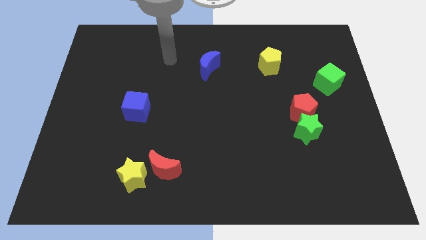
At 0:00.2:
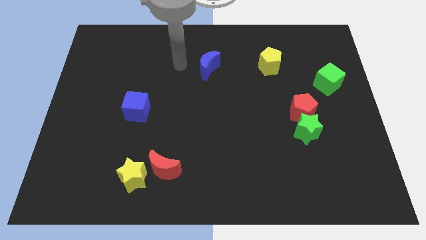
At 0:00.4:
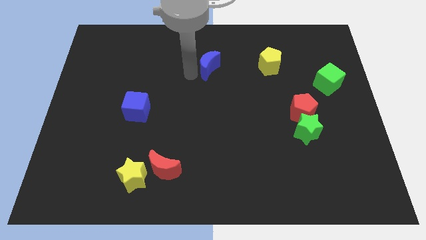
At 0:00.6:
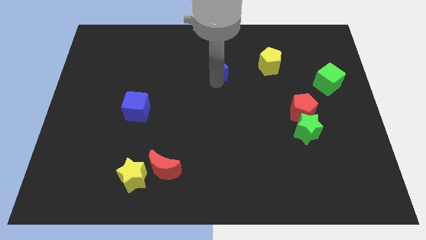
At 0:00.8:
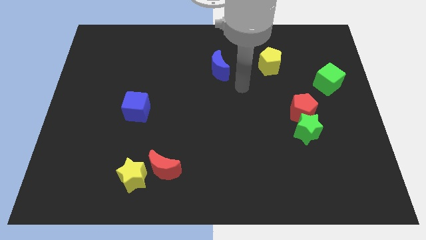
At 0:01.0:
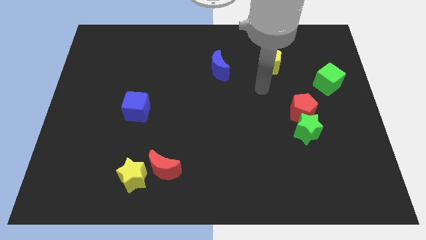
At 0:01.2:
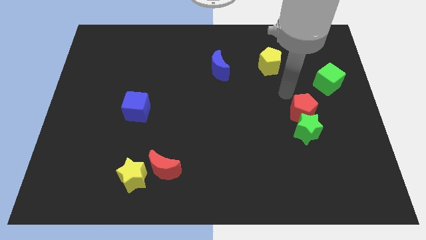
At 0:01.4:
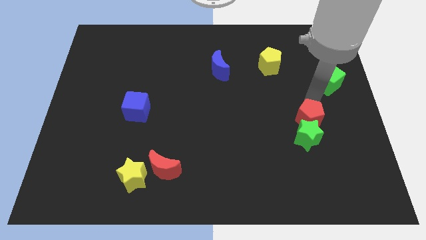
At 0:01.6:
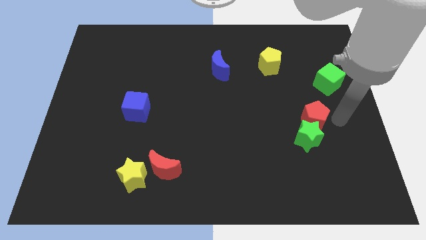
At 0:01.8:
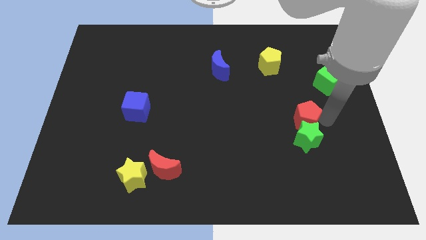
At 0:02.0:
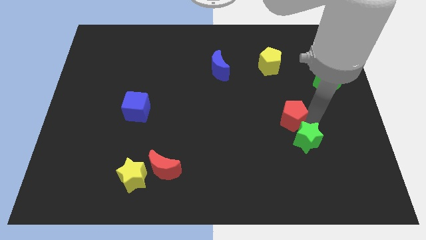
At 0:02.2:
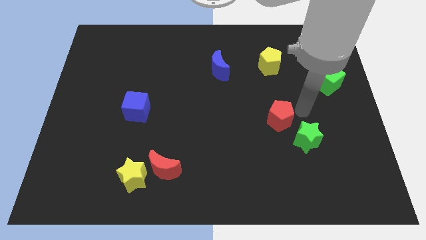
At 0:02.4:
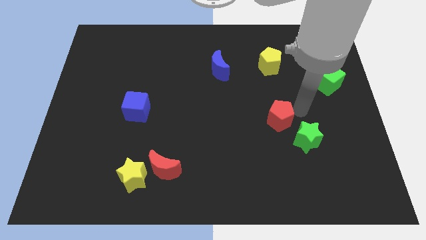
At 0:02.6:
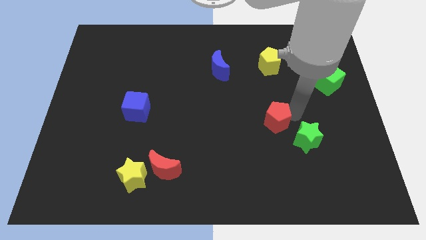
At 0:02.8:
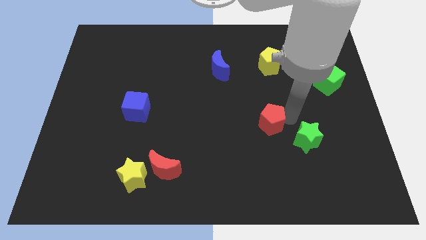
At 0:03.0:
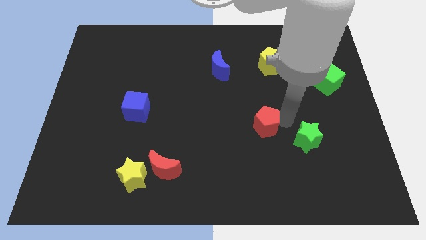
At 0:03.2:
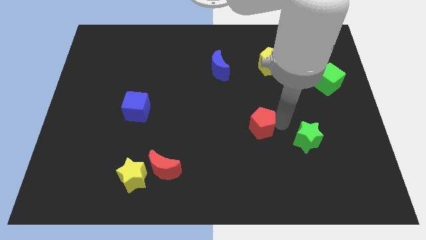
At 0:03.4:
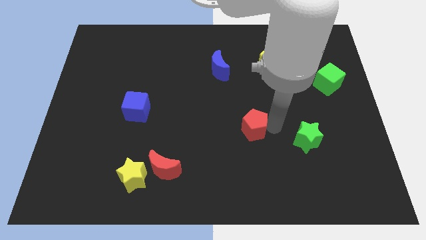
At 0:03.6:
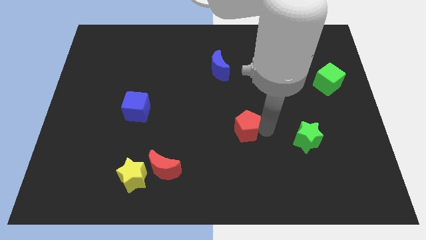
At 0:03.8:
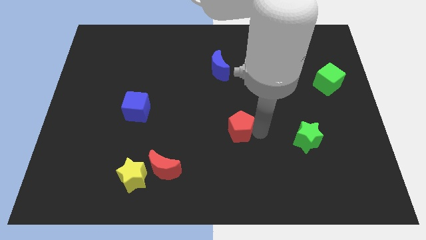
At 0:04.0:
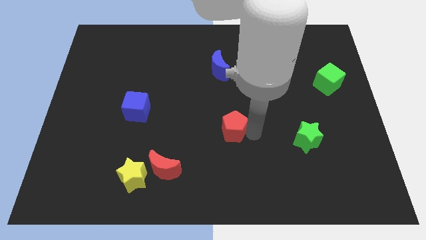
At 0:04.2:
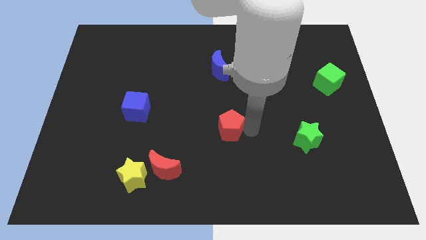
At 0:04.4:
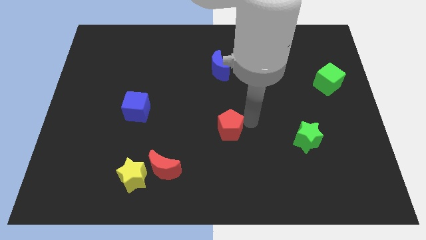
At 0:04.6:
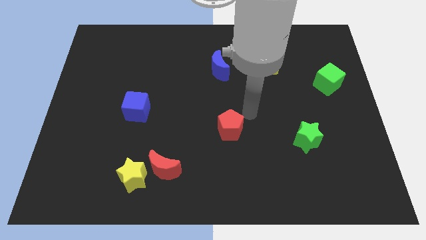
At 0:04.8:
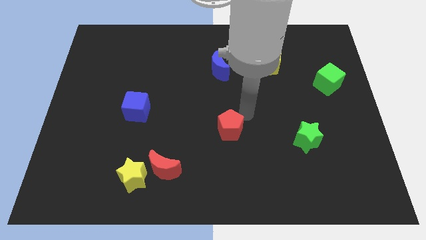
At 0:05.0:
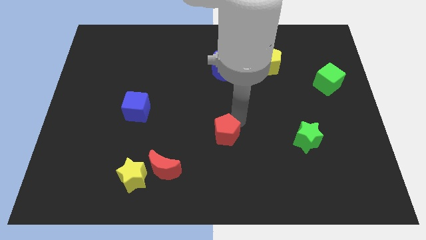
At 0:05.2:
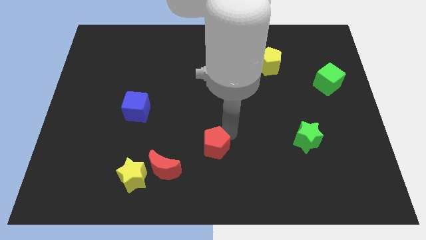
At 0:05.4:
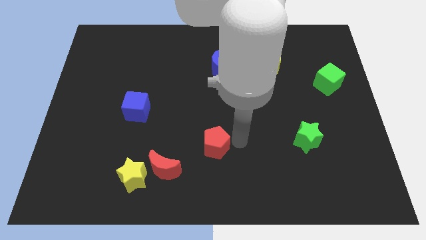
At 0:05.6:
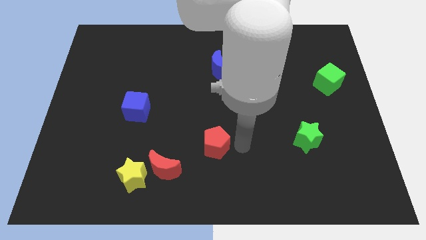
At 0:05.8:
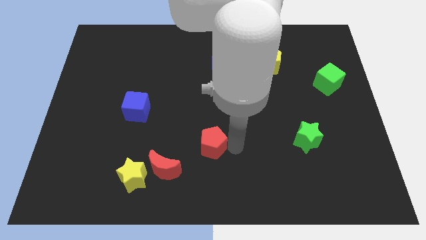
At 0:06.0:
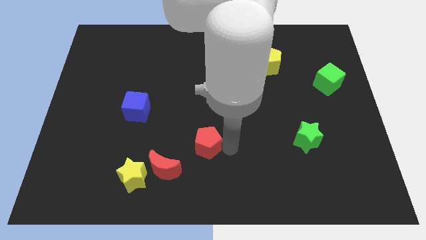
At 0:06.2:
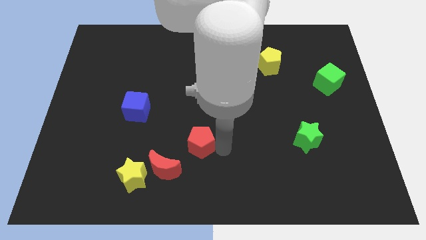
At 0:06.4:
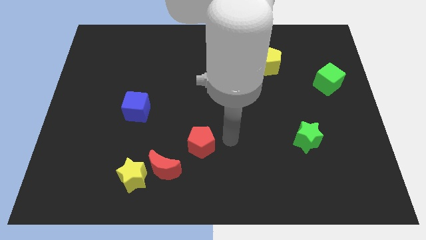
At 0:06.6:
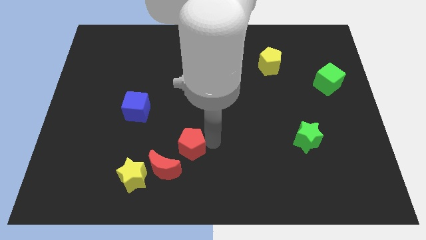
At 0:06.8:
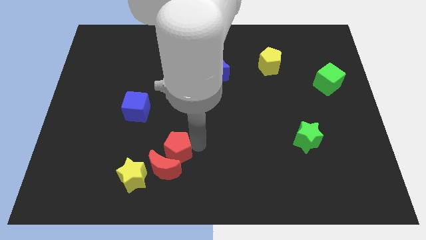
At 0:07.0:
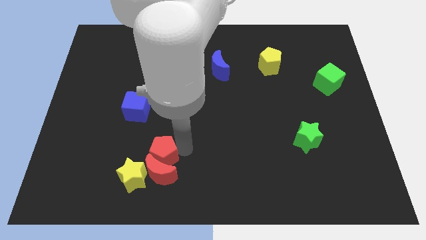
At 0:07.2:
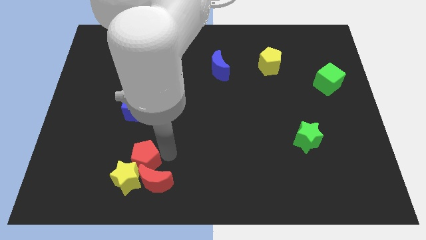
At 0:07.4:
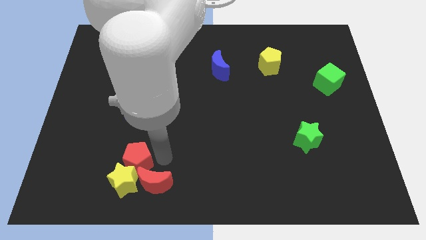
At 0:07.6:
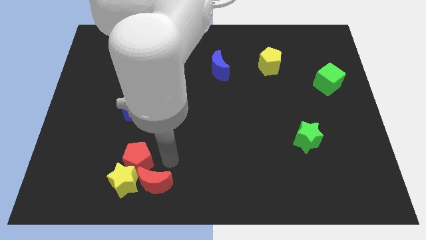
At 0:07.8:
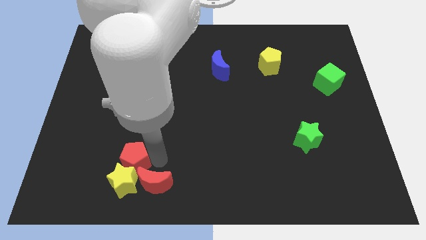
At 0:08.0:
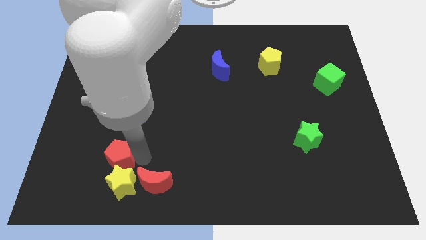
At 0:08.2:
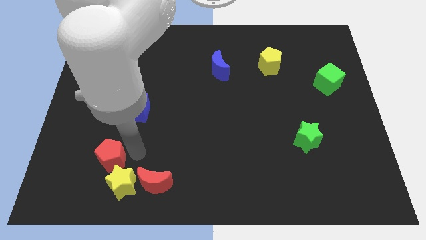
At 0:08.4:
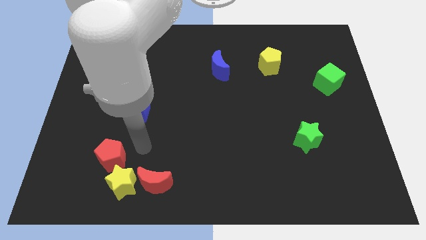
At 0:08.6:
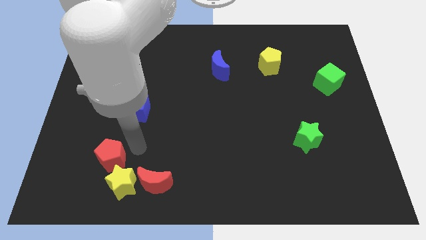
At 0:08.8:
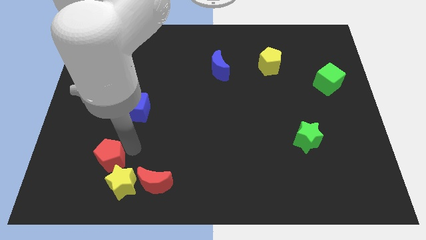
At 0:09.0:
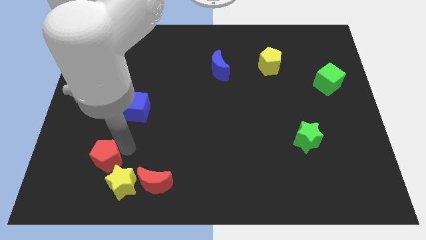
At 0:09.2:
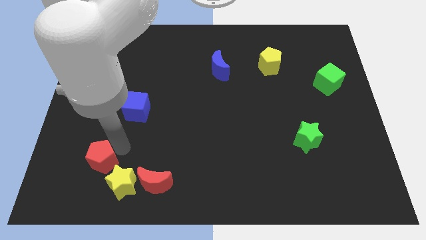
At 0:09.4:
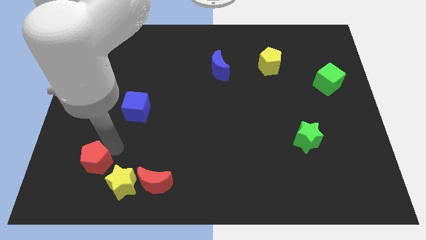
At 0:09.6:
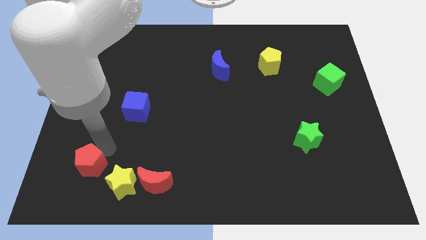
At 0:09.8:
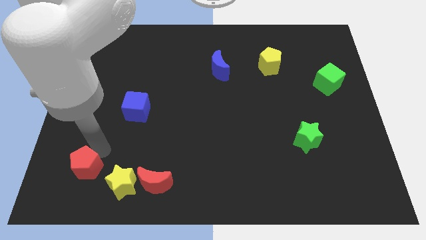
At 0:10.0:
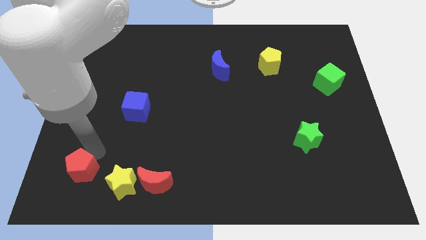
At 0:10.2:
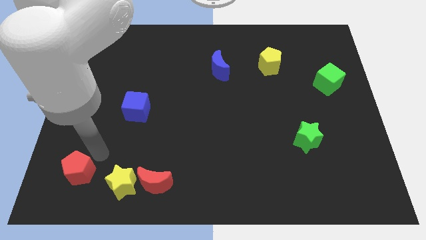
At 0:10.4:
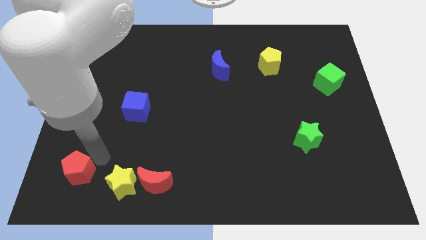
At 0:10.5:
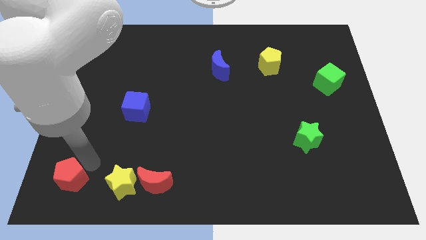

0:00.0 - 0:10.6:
push the red pentagon to the lower left corner

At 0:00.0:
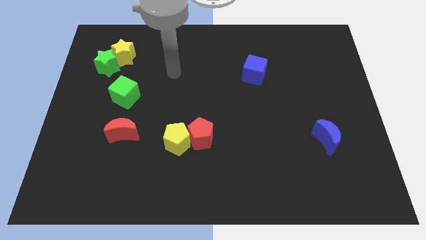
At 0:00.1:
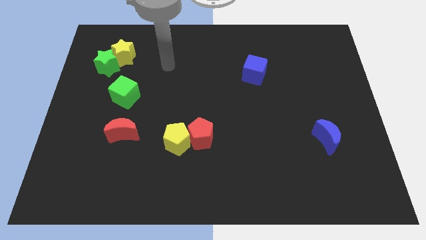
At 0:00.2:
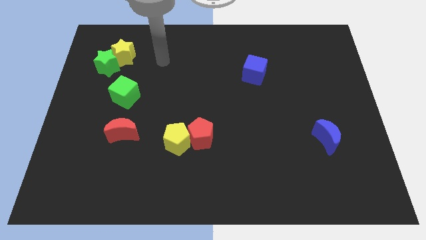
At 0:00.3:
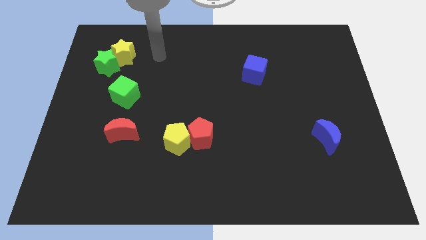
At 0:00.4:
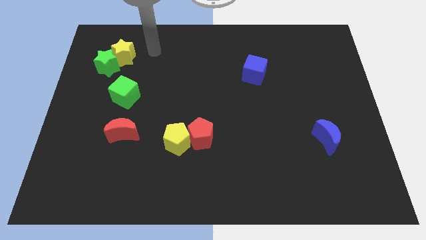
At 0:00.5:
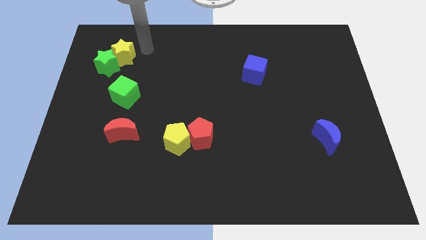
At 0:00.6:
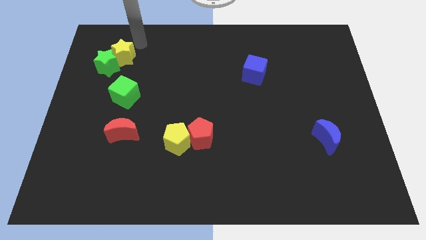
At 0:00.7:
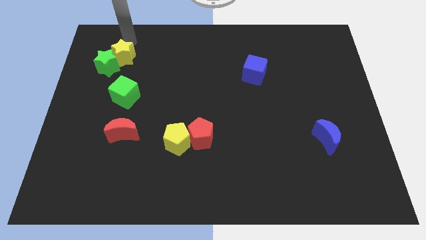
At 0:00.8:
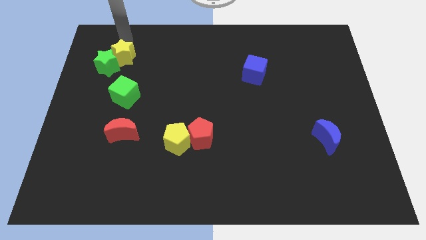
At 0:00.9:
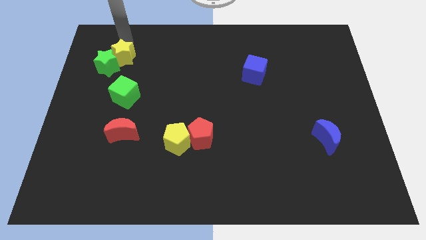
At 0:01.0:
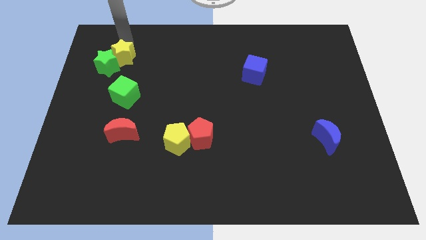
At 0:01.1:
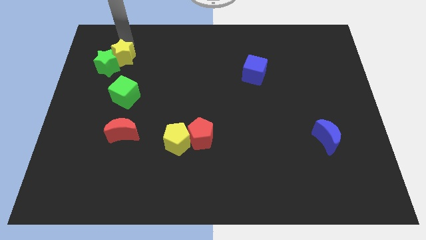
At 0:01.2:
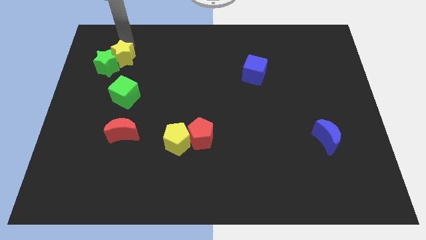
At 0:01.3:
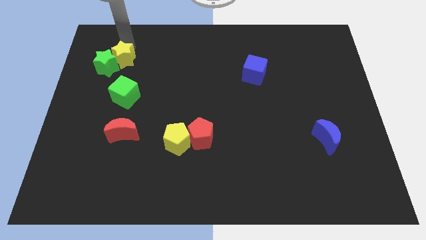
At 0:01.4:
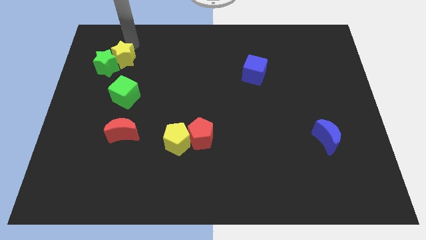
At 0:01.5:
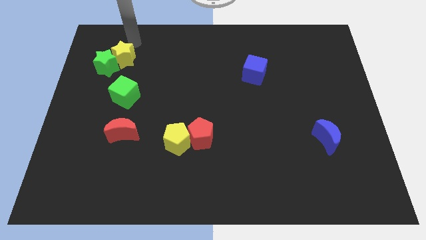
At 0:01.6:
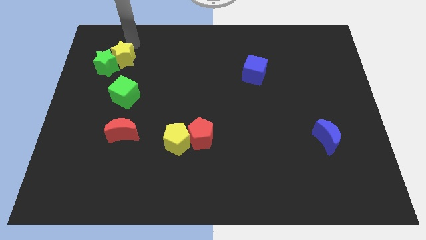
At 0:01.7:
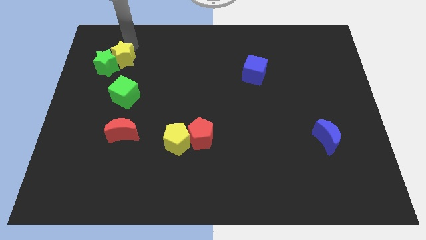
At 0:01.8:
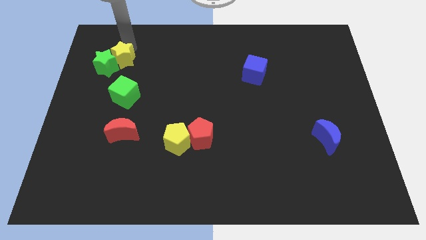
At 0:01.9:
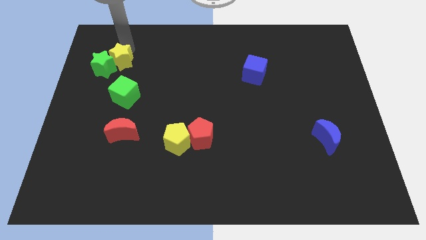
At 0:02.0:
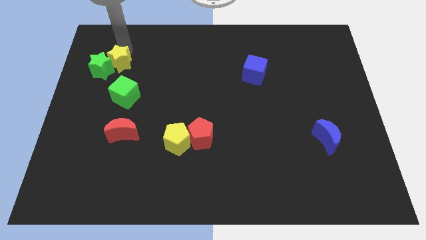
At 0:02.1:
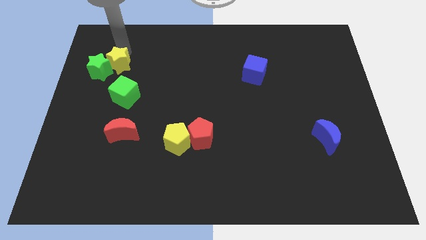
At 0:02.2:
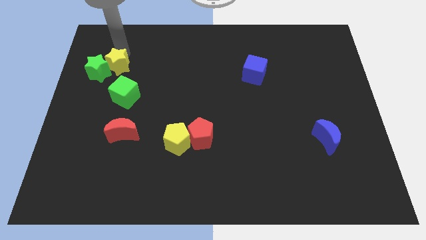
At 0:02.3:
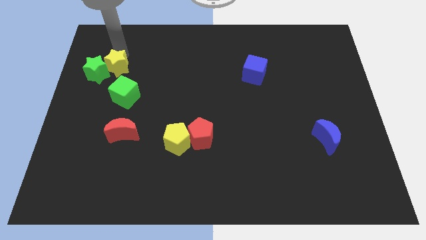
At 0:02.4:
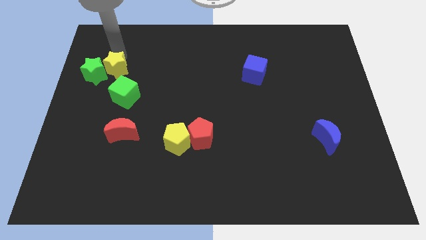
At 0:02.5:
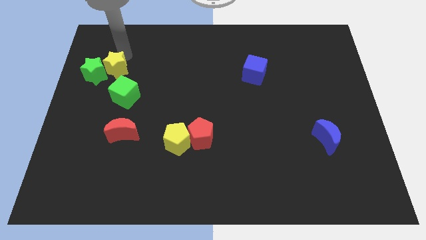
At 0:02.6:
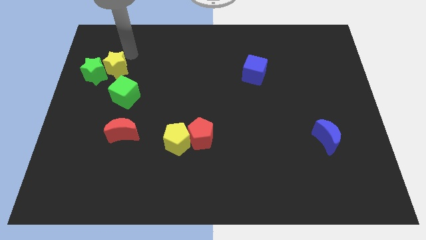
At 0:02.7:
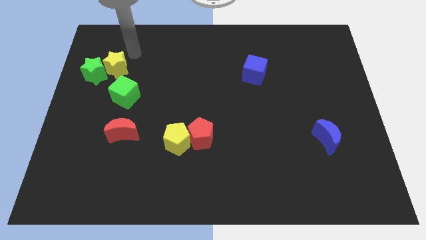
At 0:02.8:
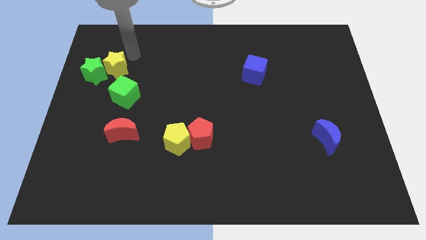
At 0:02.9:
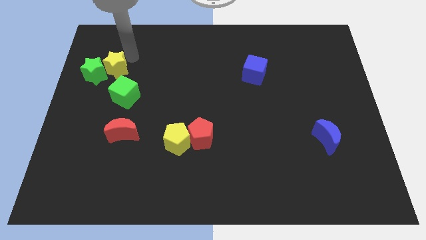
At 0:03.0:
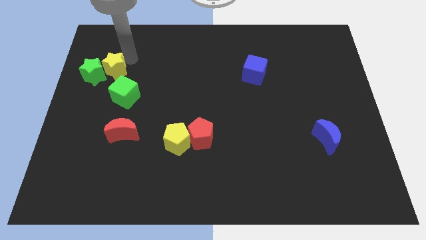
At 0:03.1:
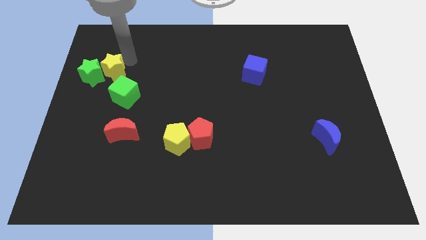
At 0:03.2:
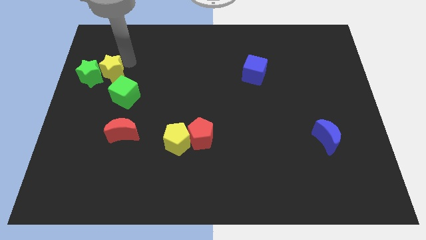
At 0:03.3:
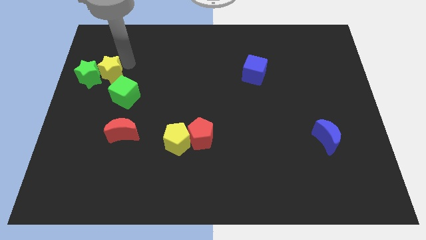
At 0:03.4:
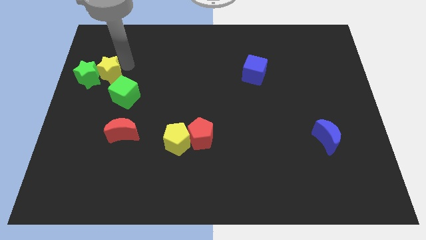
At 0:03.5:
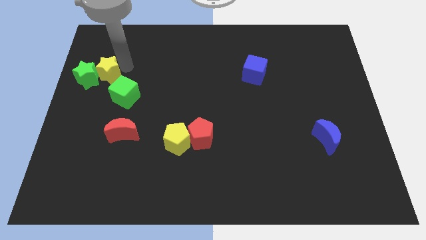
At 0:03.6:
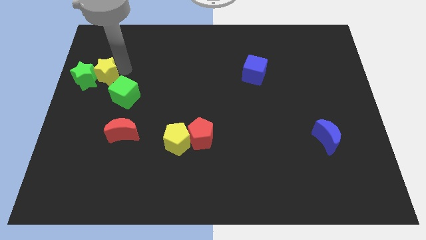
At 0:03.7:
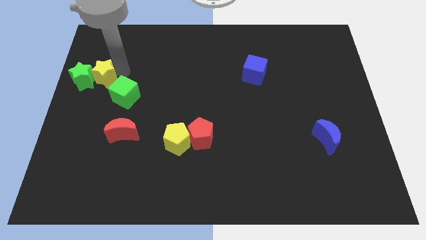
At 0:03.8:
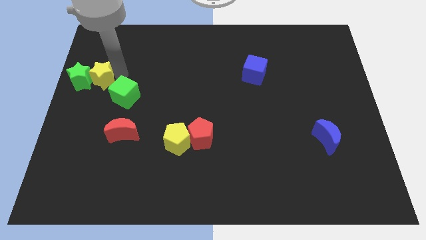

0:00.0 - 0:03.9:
put the yellow star to the center left
